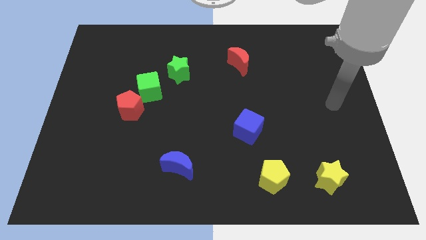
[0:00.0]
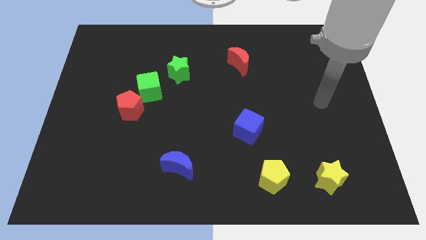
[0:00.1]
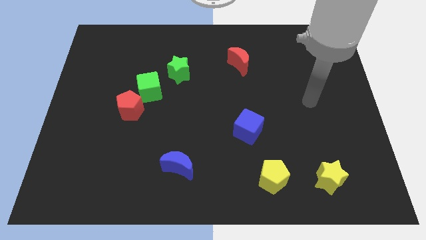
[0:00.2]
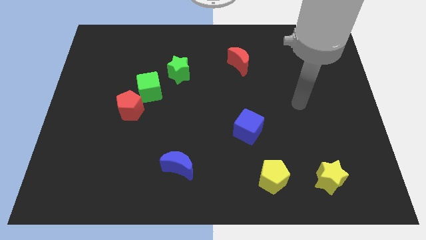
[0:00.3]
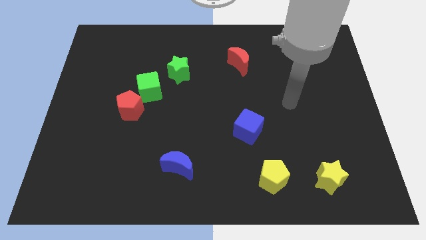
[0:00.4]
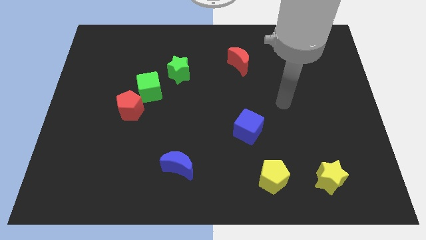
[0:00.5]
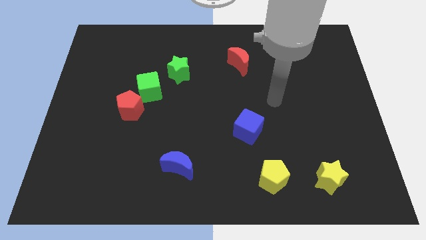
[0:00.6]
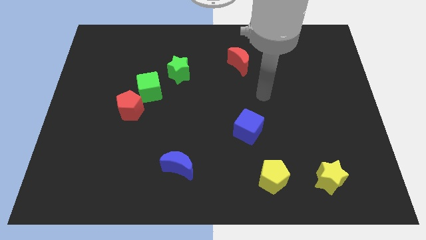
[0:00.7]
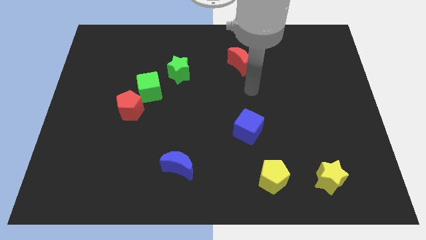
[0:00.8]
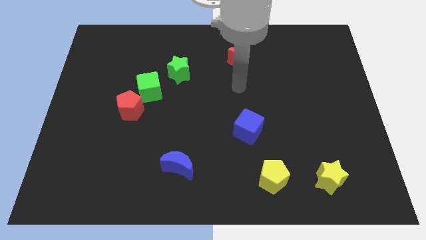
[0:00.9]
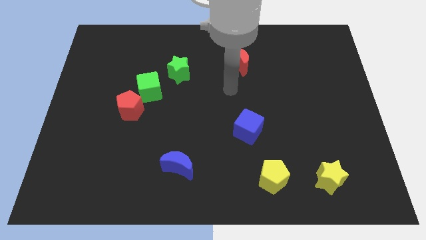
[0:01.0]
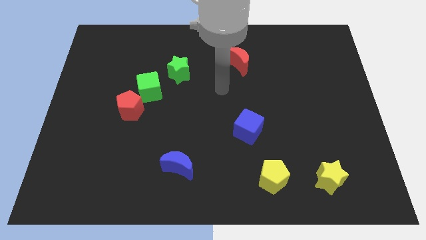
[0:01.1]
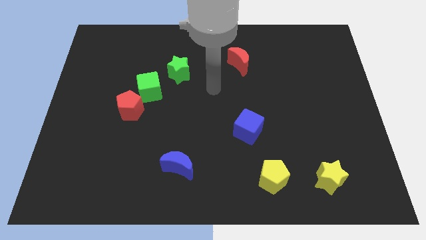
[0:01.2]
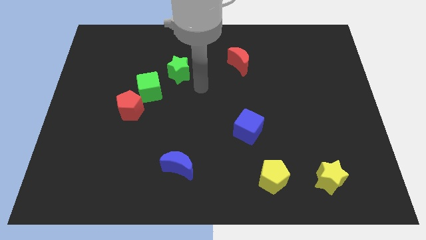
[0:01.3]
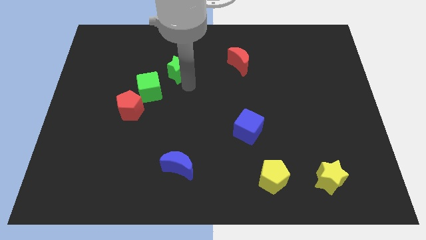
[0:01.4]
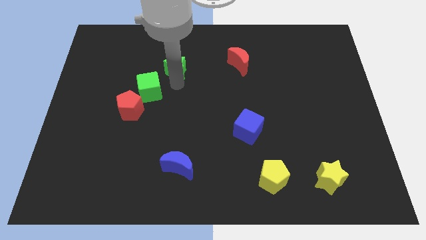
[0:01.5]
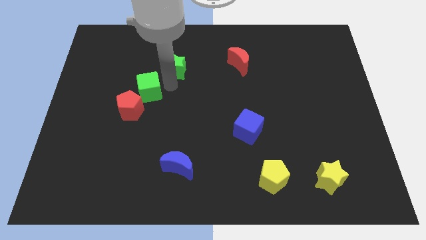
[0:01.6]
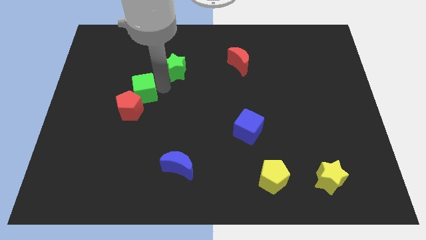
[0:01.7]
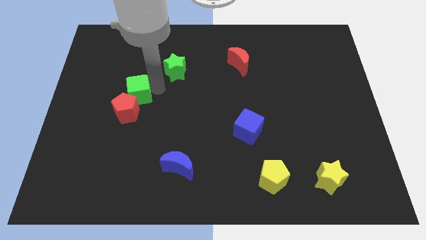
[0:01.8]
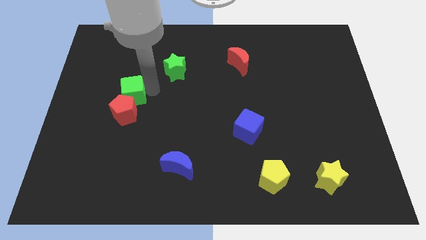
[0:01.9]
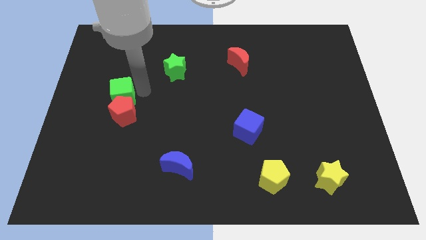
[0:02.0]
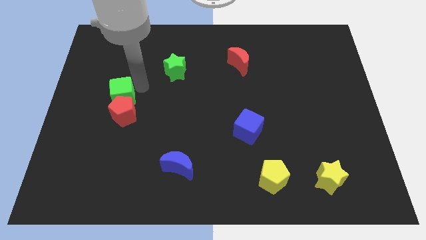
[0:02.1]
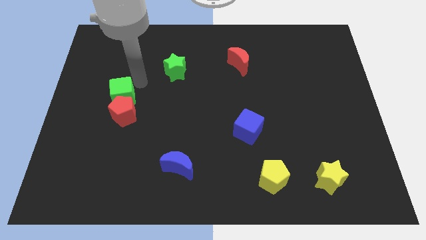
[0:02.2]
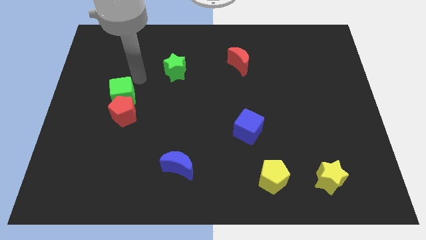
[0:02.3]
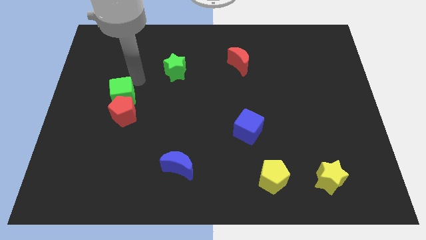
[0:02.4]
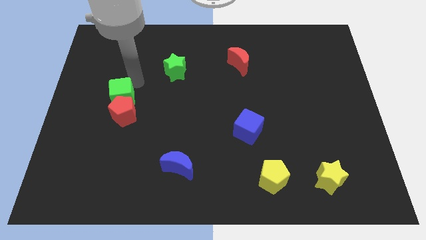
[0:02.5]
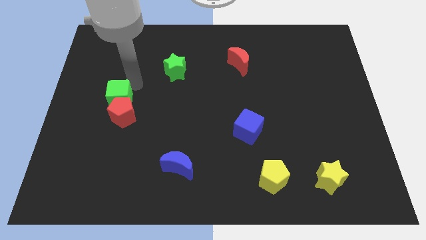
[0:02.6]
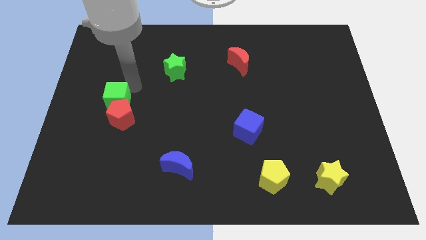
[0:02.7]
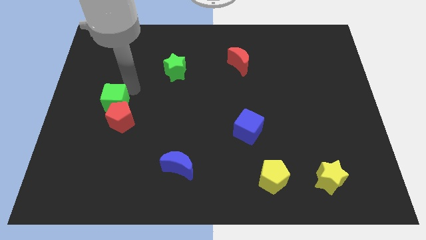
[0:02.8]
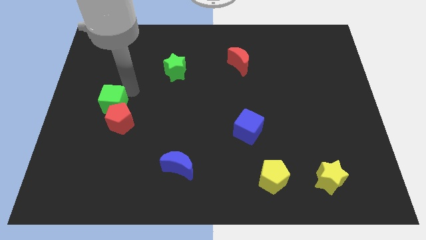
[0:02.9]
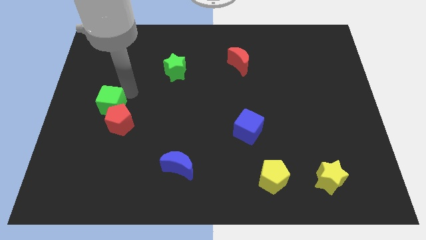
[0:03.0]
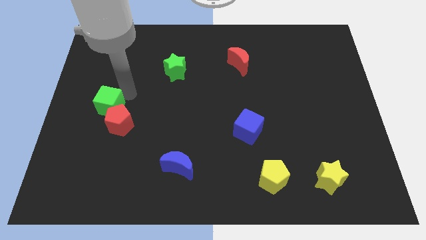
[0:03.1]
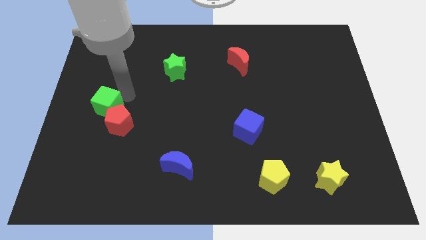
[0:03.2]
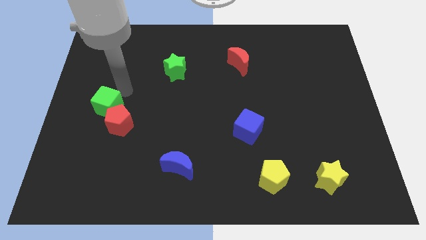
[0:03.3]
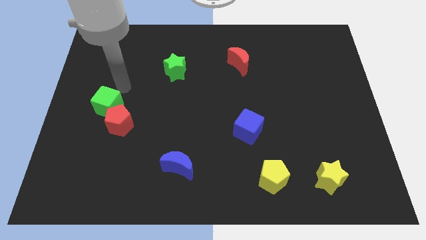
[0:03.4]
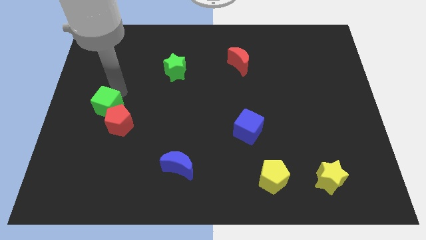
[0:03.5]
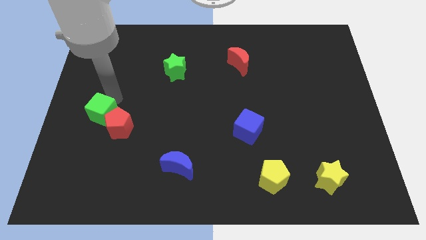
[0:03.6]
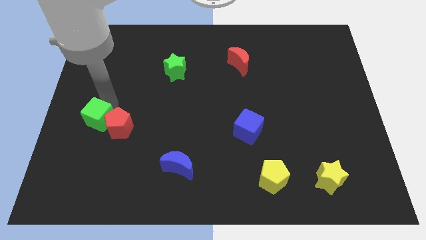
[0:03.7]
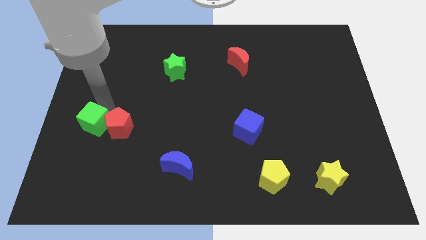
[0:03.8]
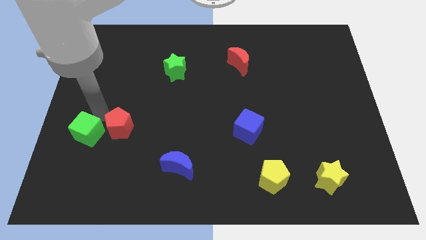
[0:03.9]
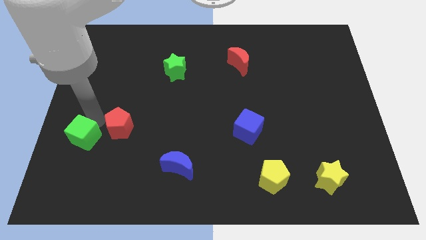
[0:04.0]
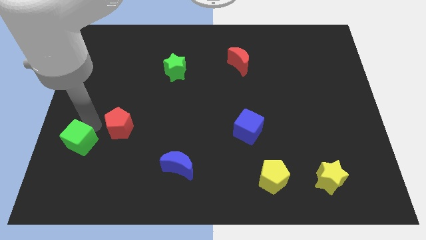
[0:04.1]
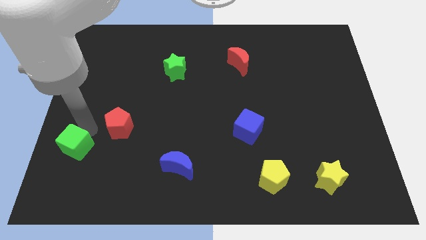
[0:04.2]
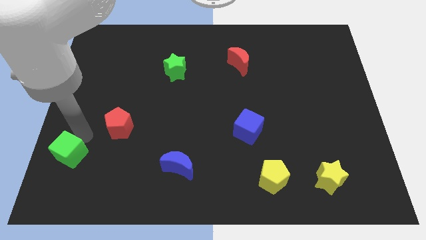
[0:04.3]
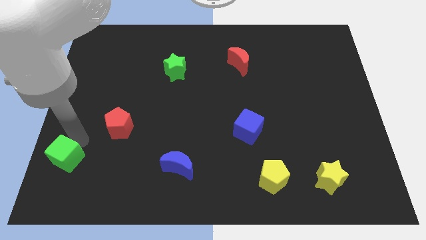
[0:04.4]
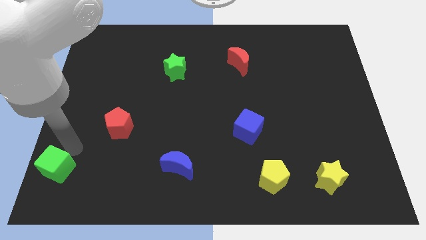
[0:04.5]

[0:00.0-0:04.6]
put the green cube to the lower left corner

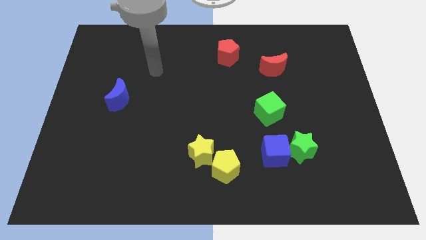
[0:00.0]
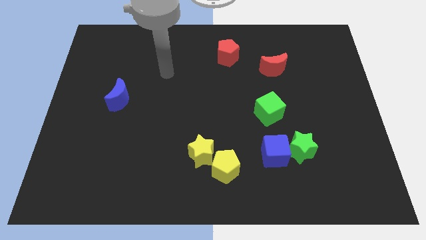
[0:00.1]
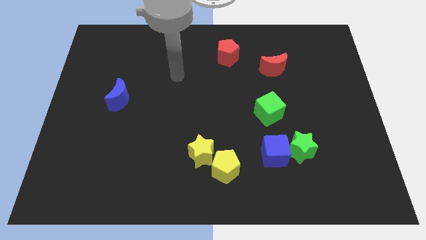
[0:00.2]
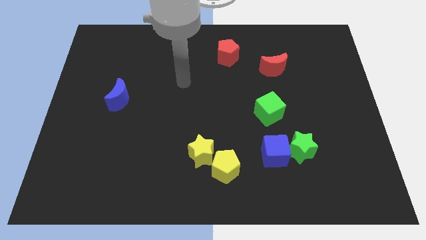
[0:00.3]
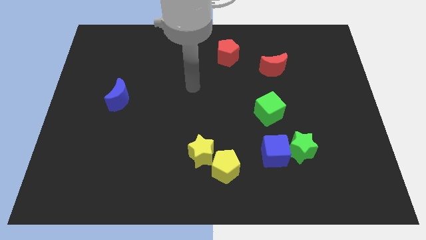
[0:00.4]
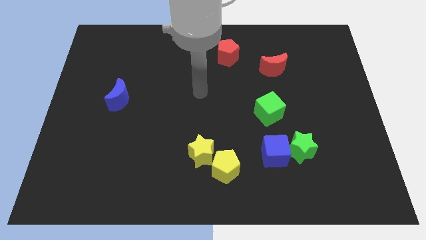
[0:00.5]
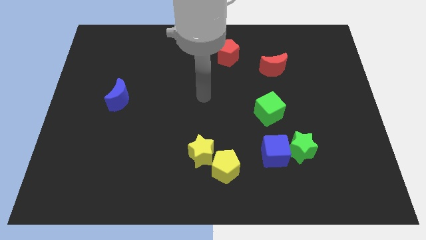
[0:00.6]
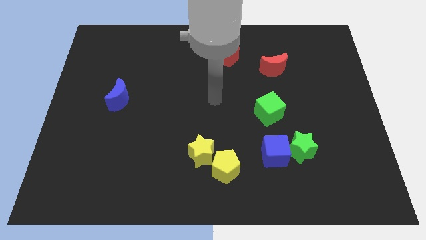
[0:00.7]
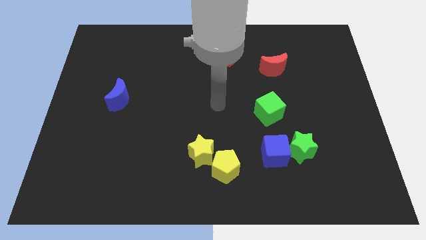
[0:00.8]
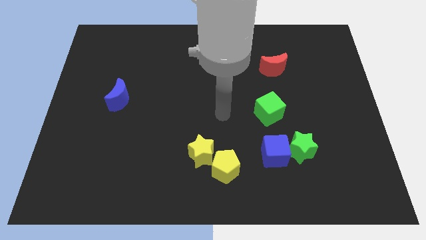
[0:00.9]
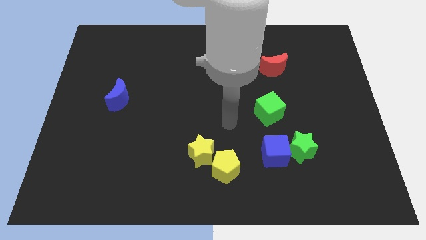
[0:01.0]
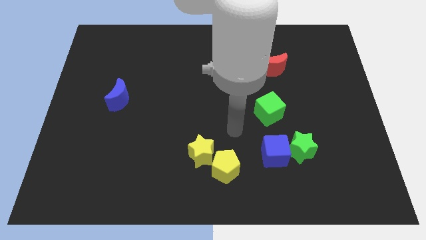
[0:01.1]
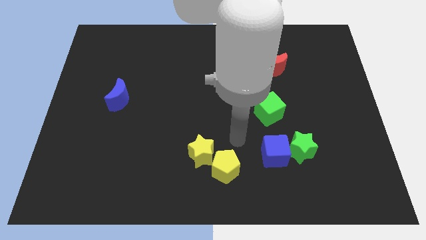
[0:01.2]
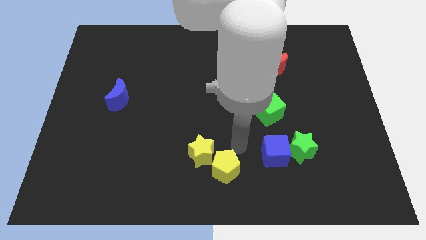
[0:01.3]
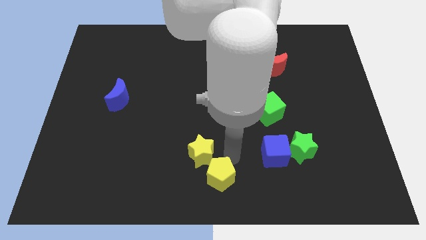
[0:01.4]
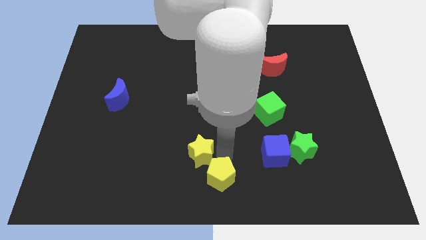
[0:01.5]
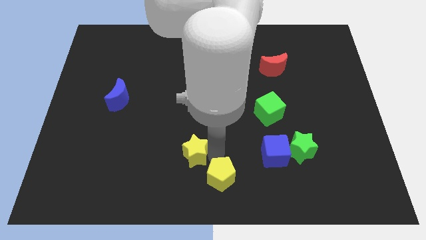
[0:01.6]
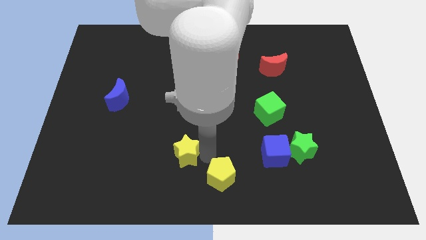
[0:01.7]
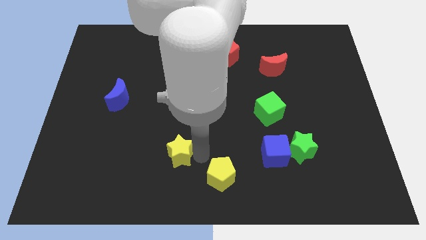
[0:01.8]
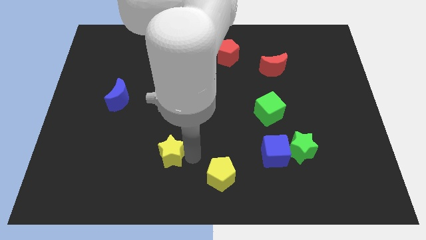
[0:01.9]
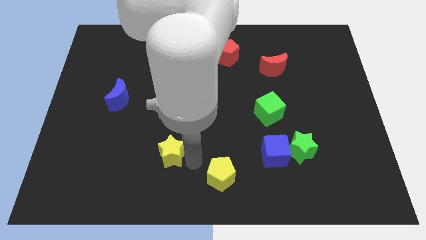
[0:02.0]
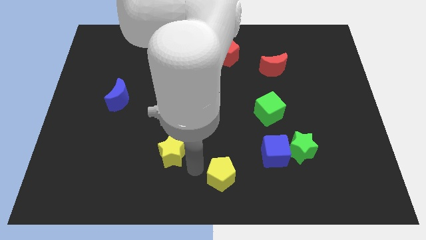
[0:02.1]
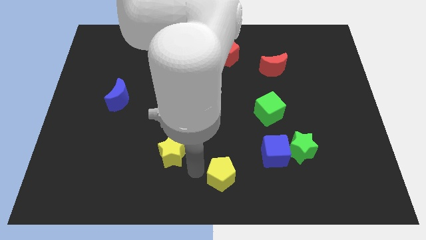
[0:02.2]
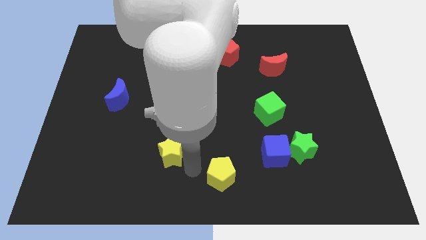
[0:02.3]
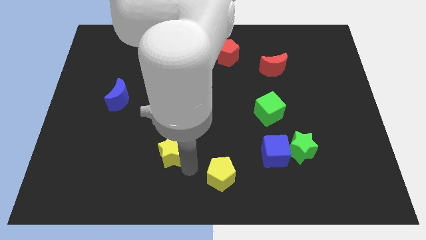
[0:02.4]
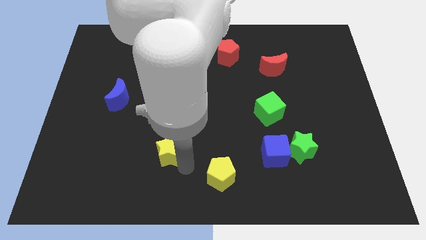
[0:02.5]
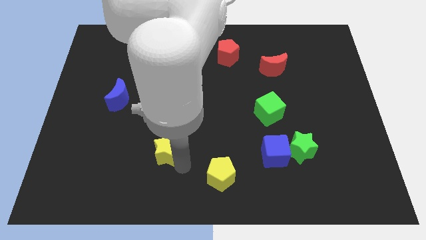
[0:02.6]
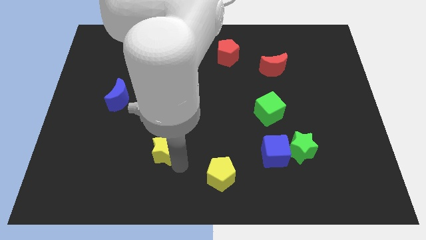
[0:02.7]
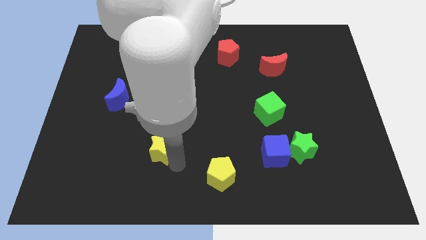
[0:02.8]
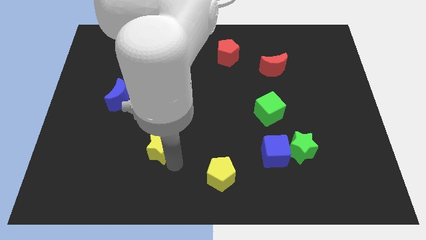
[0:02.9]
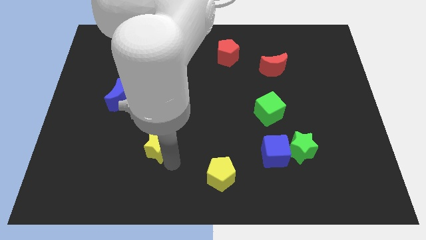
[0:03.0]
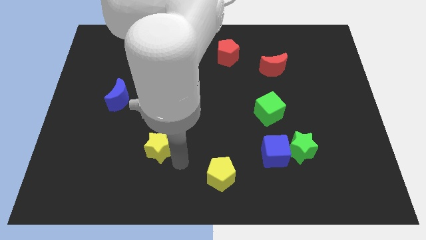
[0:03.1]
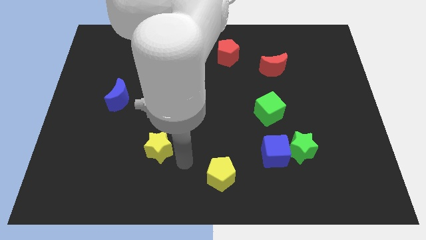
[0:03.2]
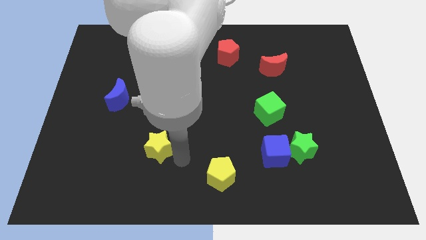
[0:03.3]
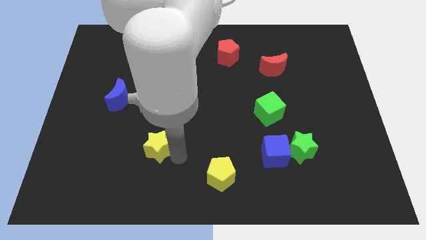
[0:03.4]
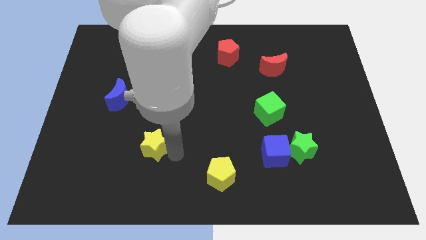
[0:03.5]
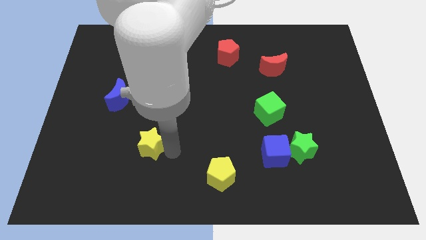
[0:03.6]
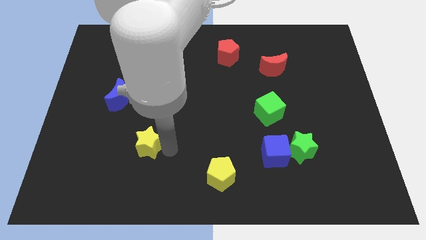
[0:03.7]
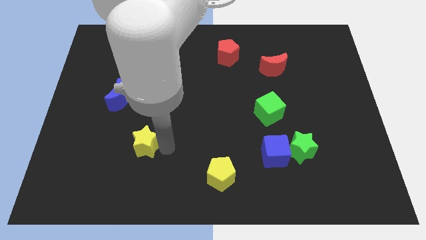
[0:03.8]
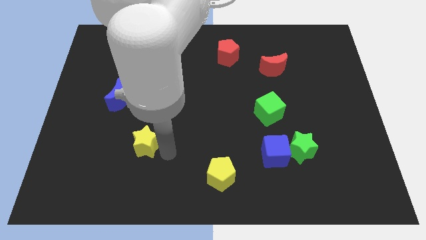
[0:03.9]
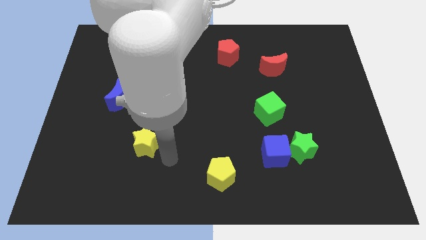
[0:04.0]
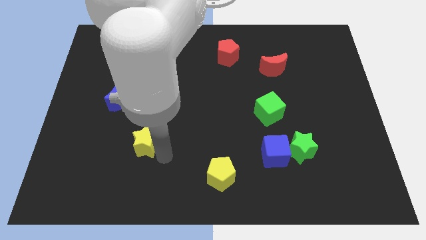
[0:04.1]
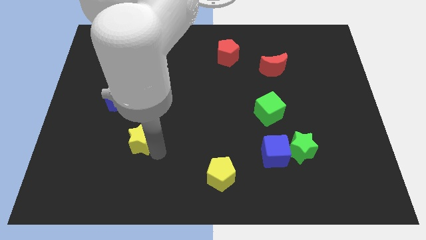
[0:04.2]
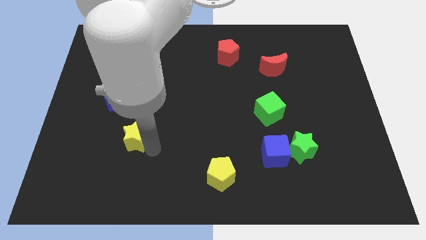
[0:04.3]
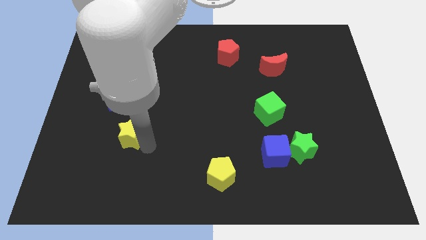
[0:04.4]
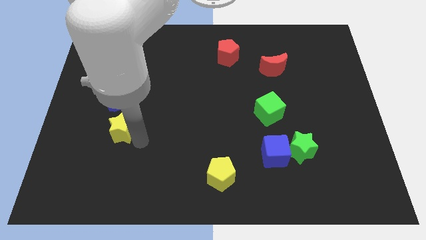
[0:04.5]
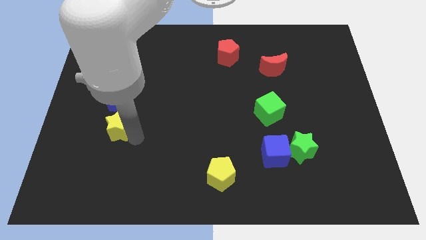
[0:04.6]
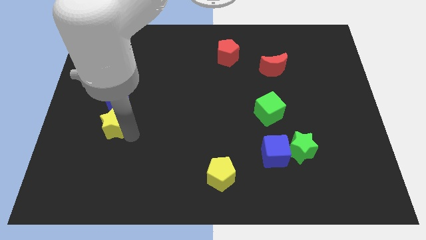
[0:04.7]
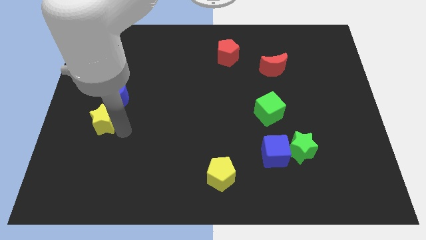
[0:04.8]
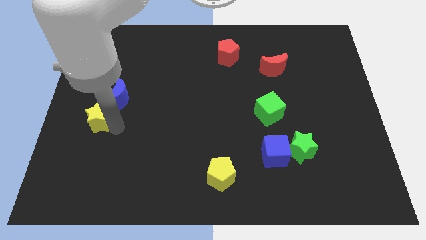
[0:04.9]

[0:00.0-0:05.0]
put the yellow star to the center left
